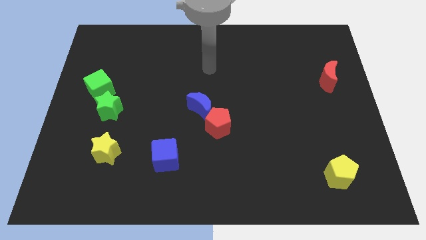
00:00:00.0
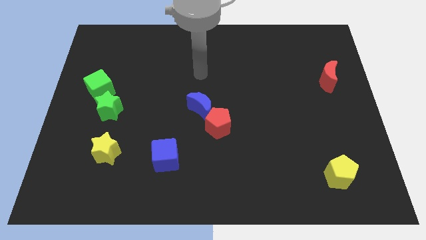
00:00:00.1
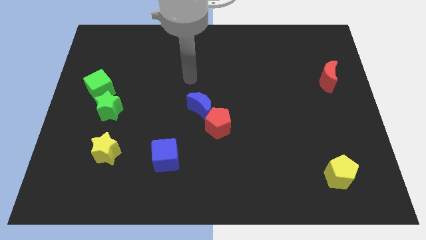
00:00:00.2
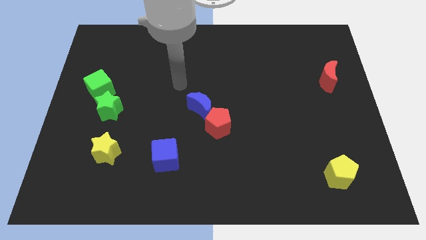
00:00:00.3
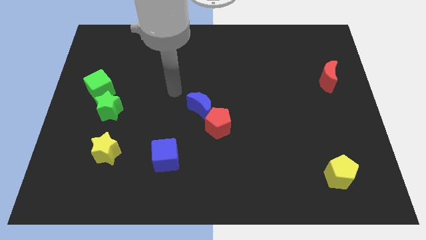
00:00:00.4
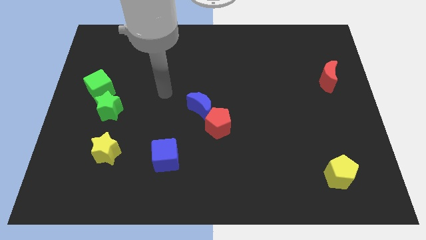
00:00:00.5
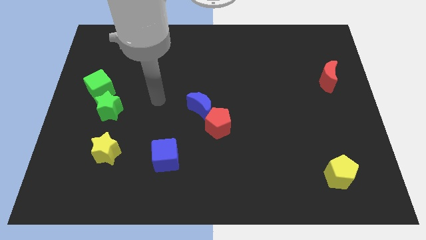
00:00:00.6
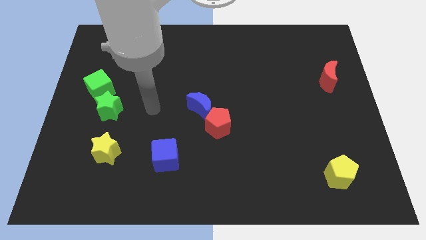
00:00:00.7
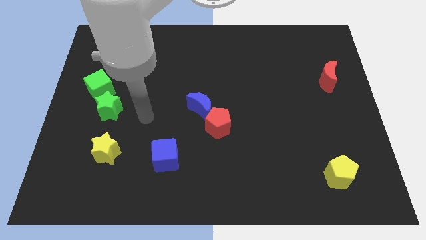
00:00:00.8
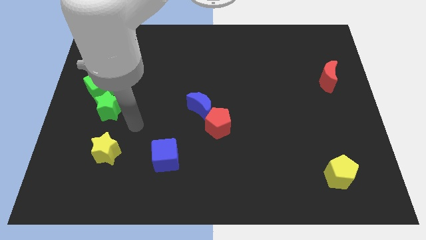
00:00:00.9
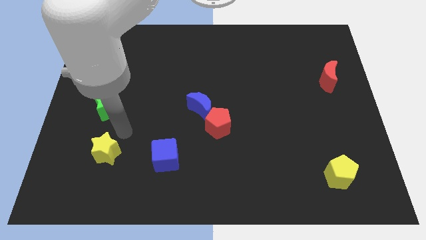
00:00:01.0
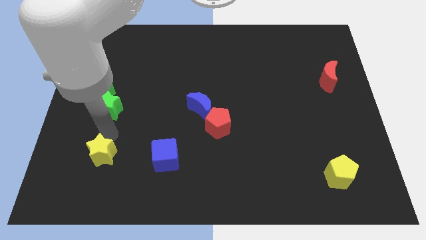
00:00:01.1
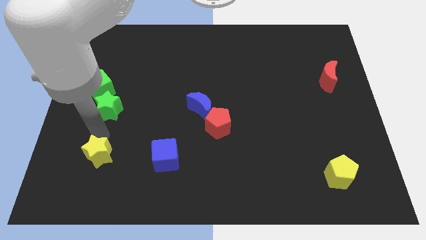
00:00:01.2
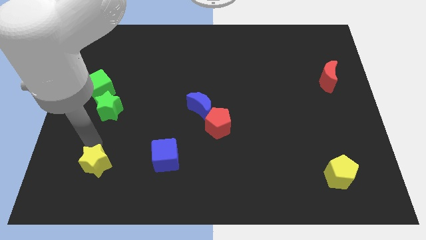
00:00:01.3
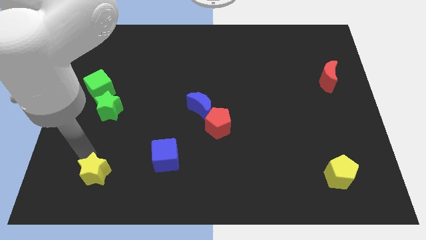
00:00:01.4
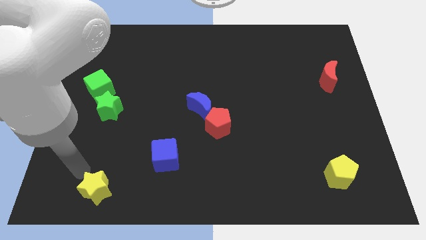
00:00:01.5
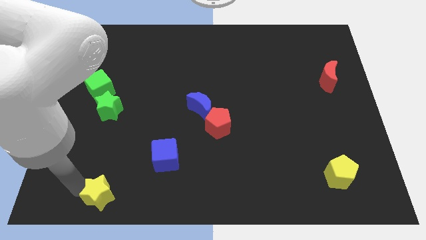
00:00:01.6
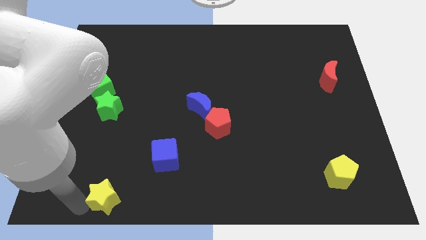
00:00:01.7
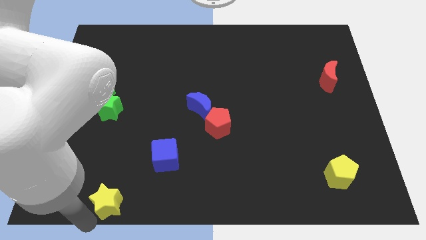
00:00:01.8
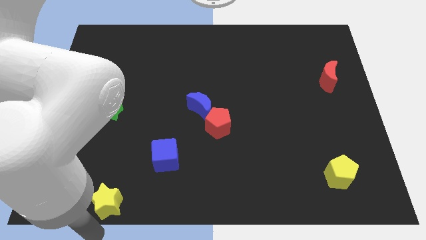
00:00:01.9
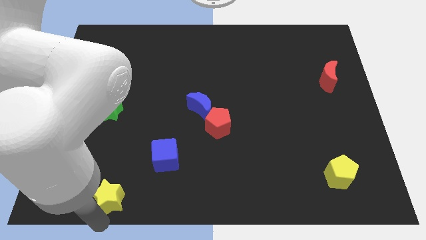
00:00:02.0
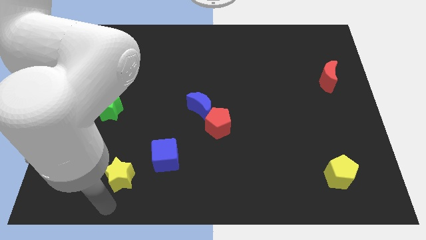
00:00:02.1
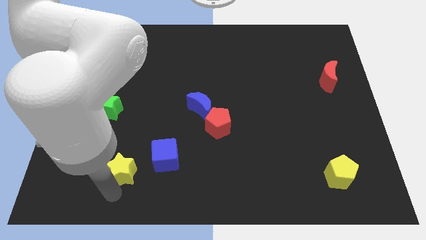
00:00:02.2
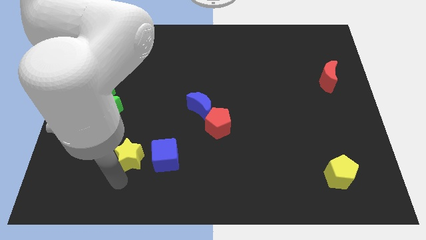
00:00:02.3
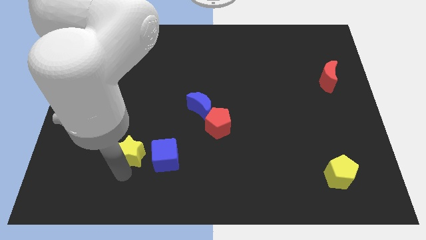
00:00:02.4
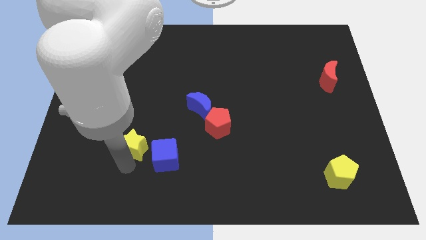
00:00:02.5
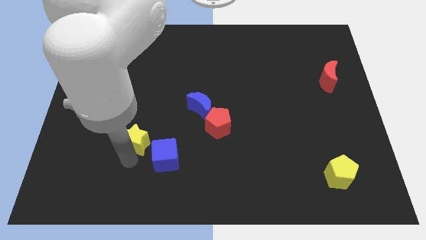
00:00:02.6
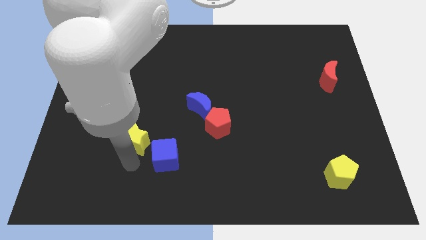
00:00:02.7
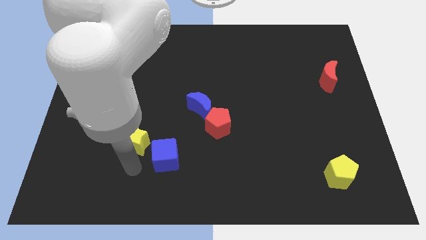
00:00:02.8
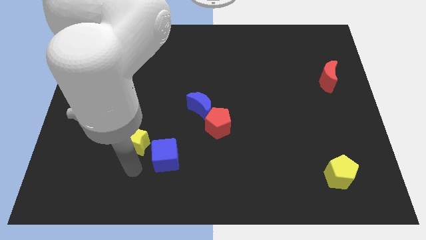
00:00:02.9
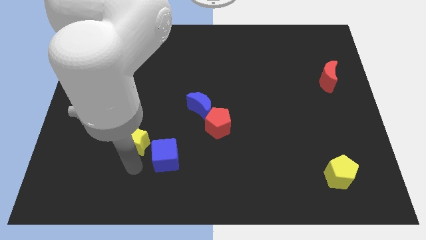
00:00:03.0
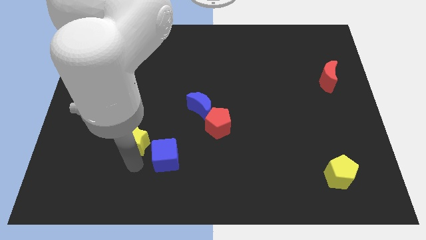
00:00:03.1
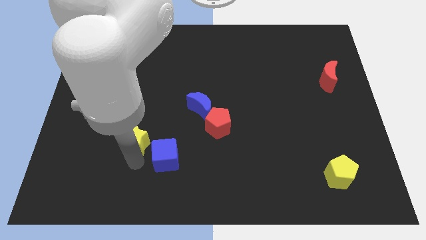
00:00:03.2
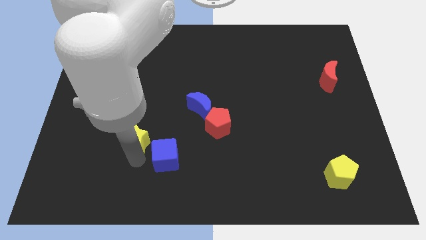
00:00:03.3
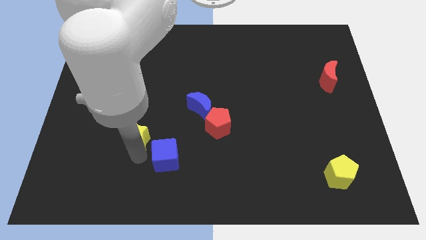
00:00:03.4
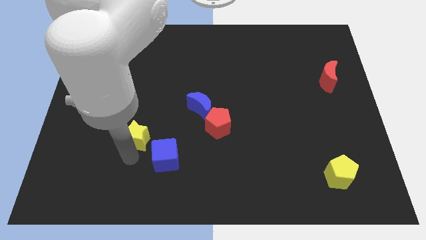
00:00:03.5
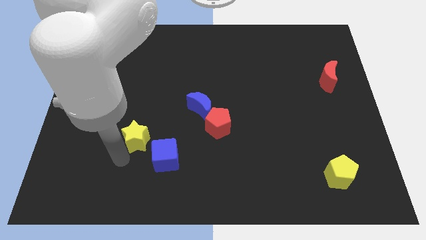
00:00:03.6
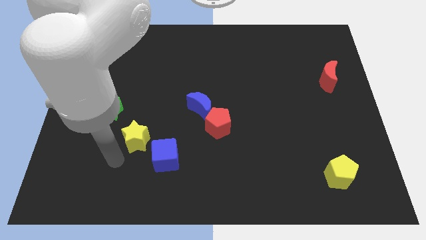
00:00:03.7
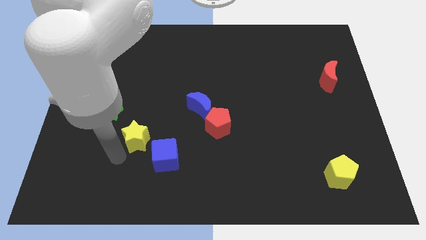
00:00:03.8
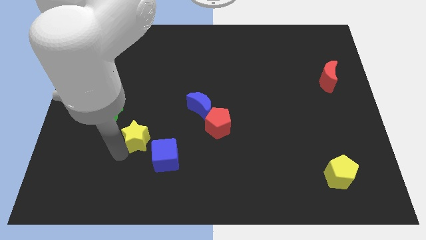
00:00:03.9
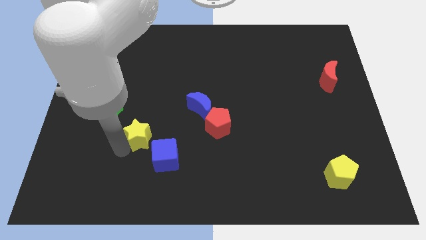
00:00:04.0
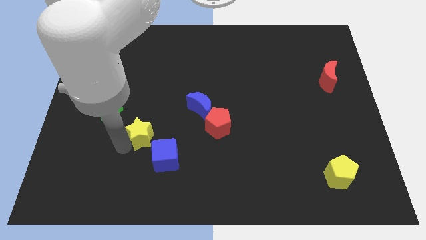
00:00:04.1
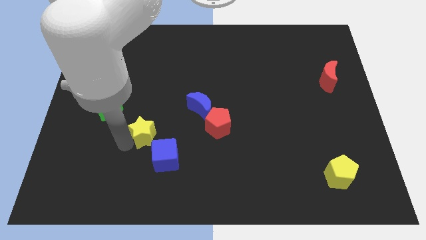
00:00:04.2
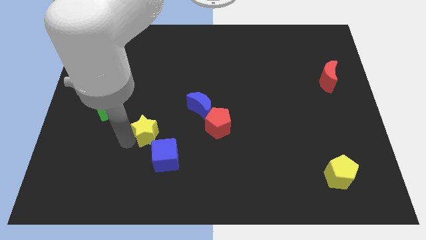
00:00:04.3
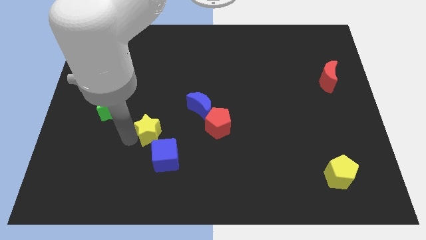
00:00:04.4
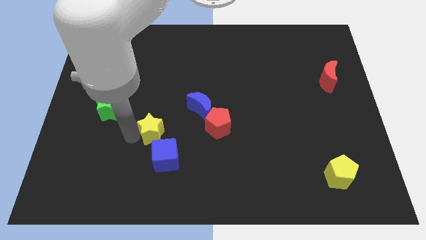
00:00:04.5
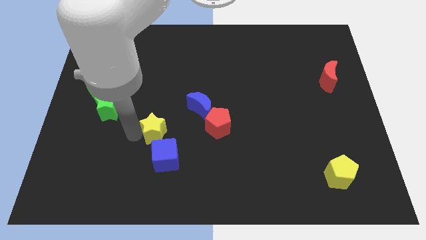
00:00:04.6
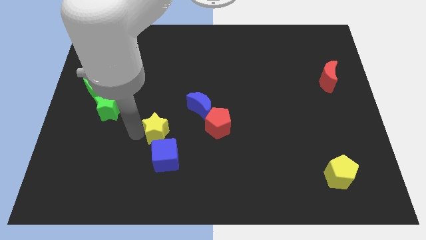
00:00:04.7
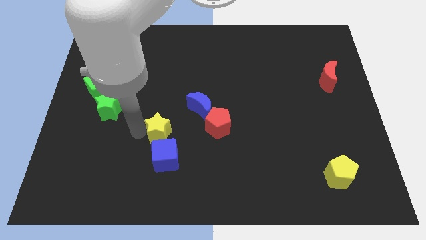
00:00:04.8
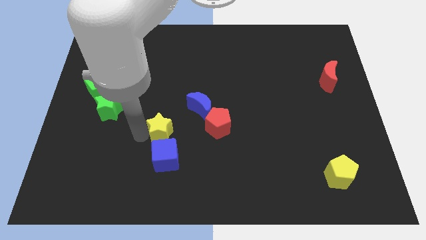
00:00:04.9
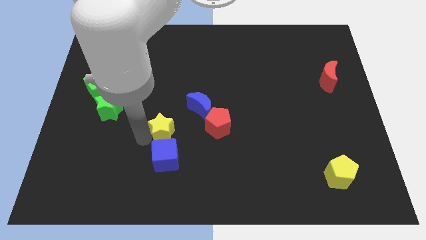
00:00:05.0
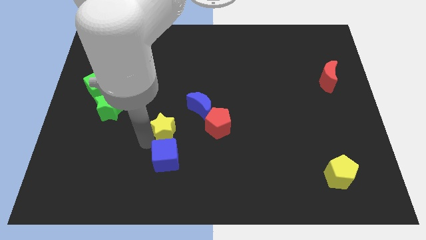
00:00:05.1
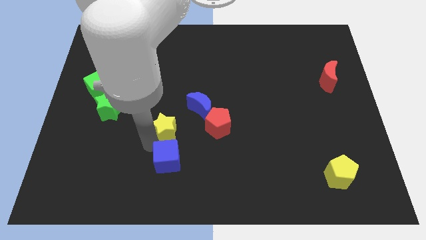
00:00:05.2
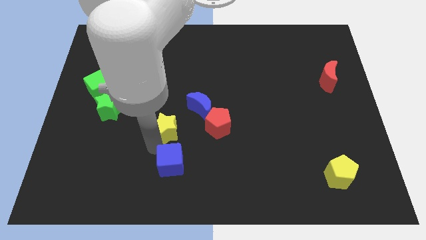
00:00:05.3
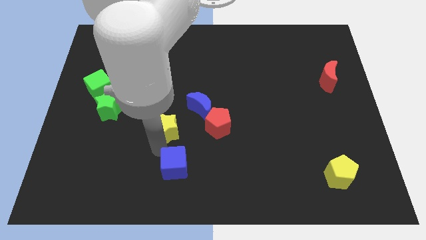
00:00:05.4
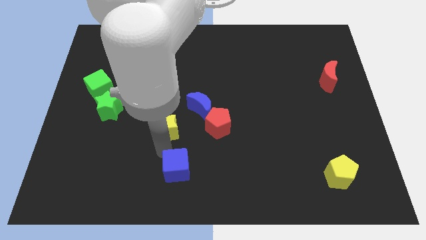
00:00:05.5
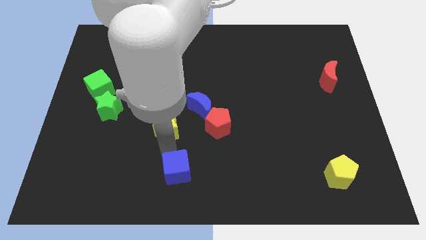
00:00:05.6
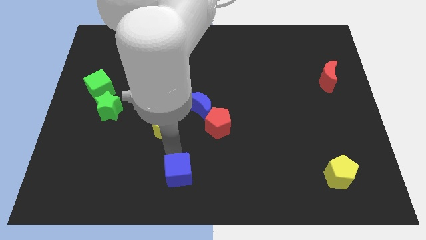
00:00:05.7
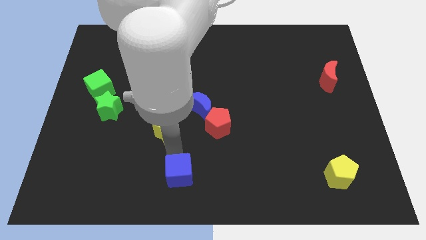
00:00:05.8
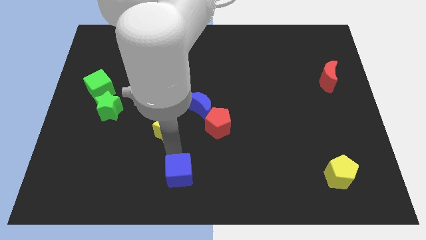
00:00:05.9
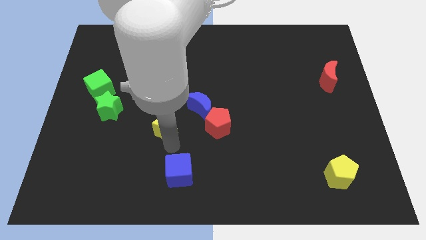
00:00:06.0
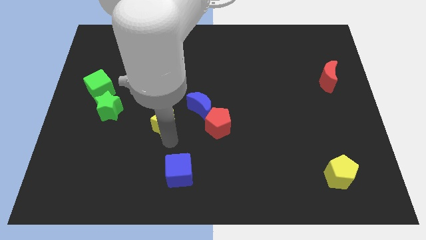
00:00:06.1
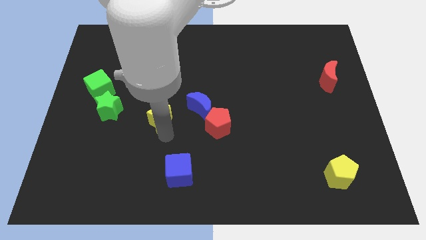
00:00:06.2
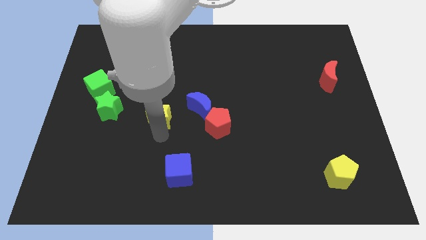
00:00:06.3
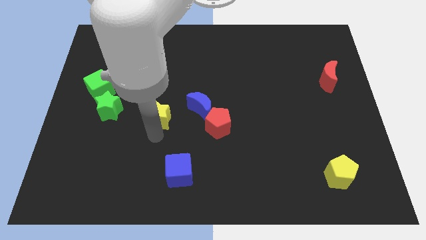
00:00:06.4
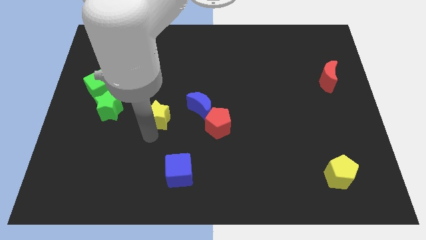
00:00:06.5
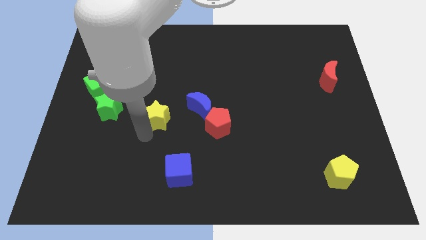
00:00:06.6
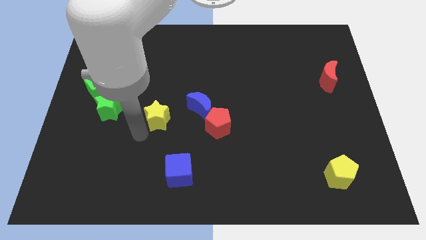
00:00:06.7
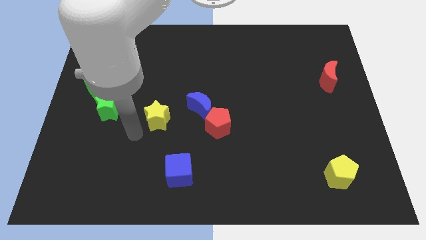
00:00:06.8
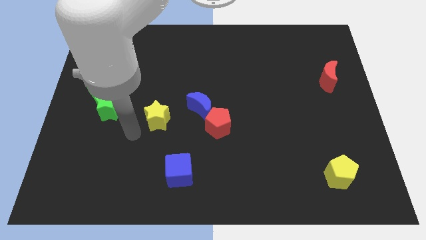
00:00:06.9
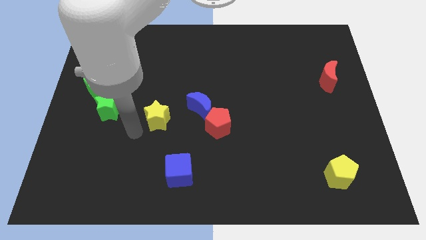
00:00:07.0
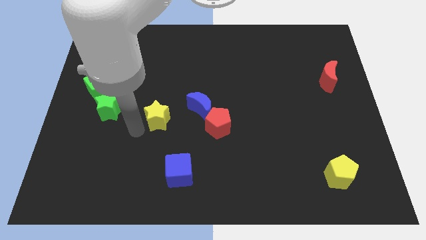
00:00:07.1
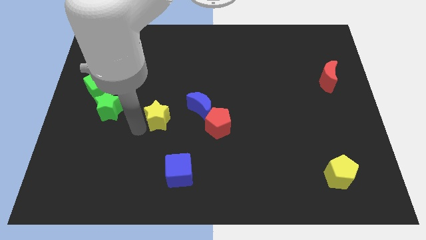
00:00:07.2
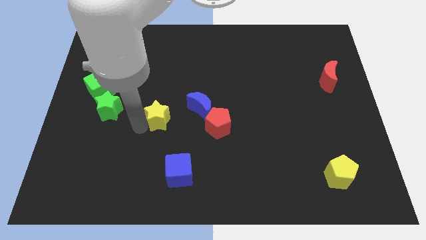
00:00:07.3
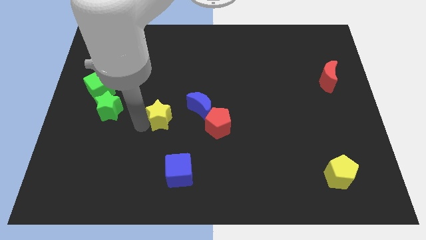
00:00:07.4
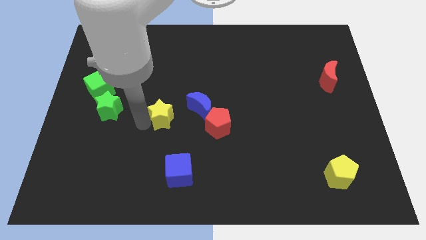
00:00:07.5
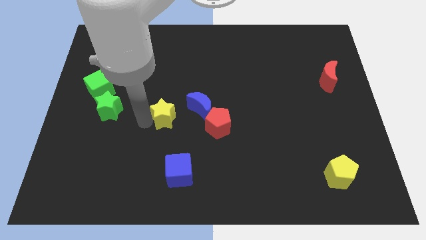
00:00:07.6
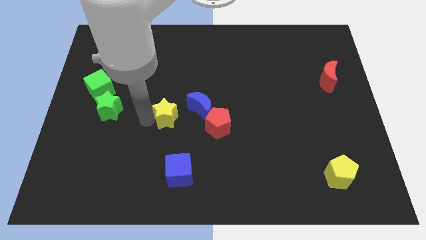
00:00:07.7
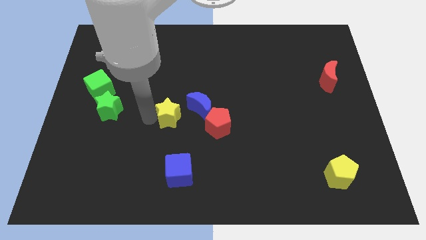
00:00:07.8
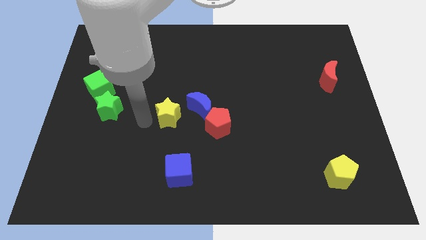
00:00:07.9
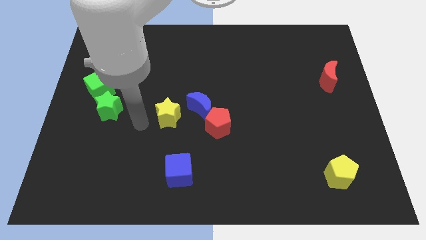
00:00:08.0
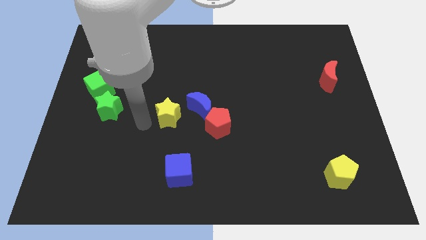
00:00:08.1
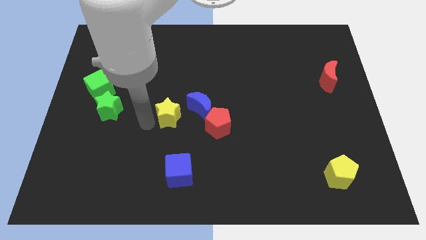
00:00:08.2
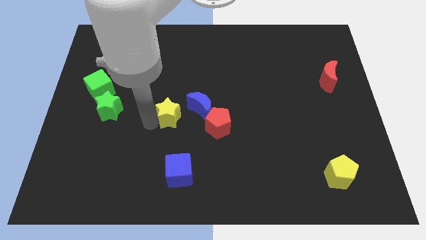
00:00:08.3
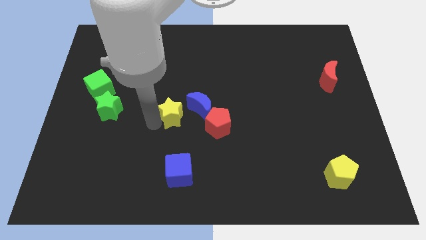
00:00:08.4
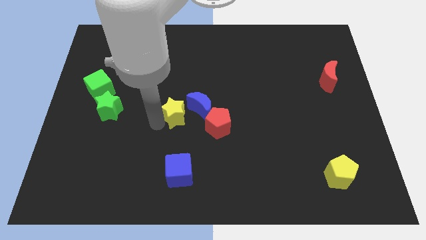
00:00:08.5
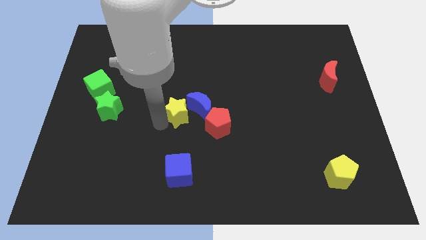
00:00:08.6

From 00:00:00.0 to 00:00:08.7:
put the yellow star to the top left side of the red pentagon
